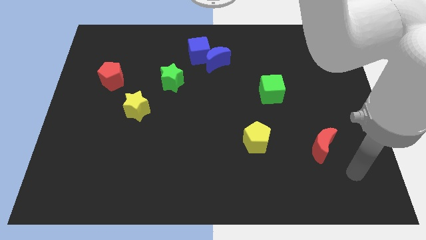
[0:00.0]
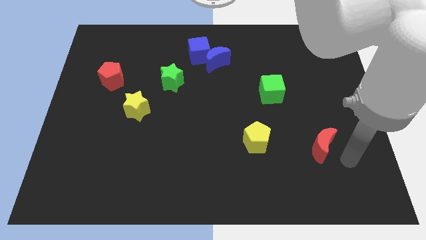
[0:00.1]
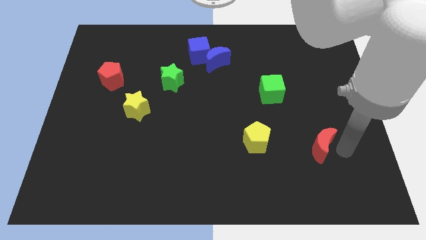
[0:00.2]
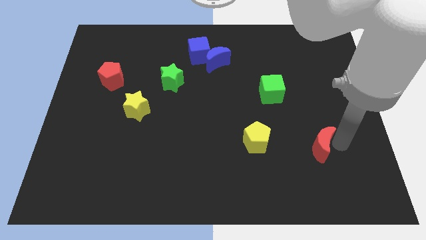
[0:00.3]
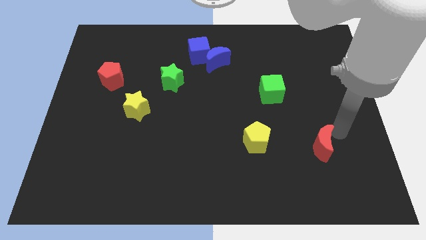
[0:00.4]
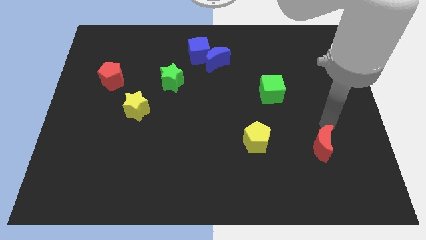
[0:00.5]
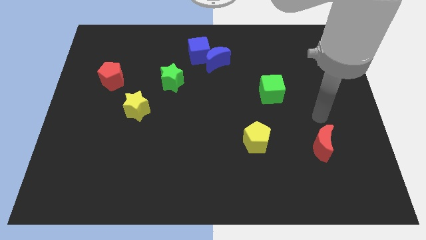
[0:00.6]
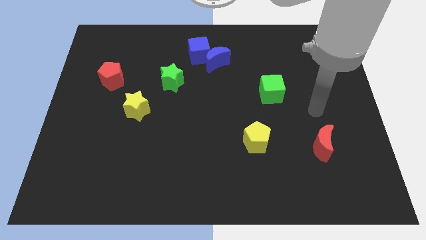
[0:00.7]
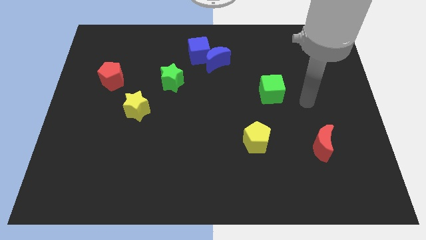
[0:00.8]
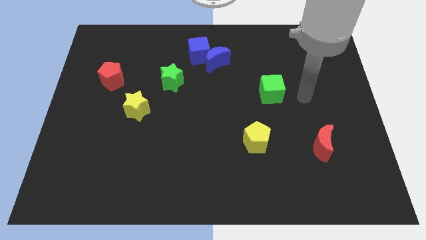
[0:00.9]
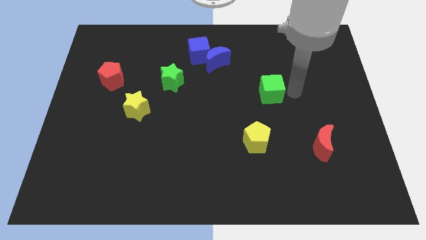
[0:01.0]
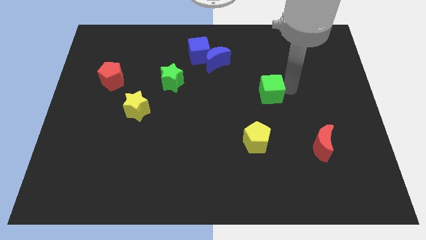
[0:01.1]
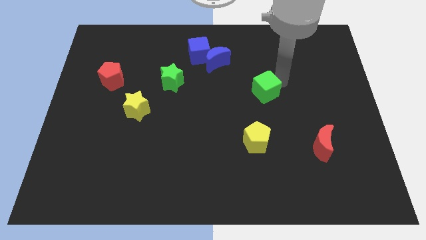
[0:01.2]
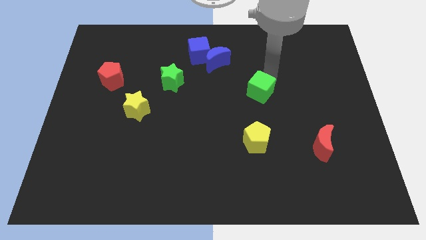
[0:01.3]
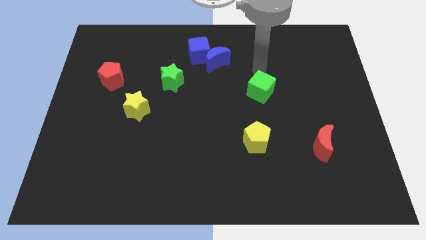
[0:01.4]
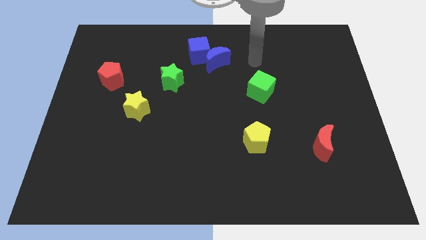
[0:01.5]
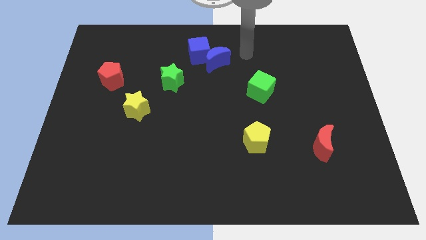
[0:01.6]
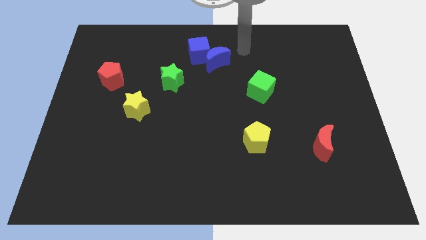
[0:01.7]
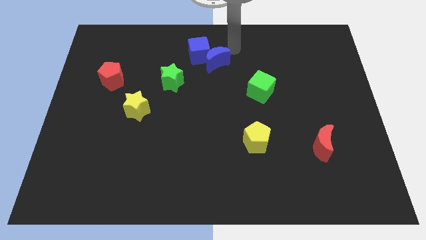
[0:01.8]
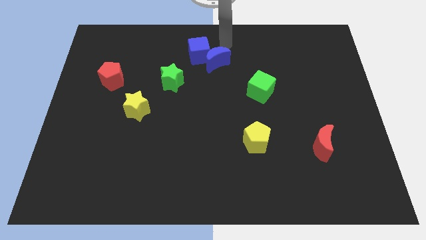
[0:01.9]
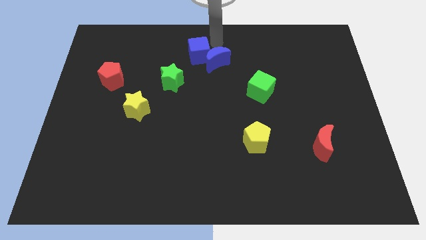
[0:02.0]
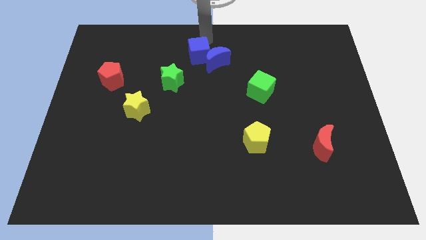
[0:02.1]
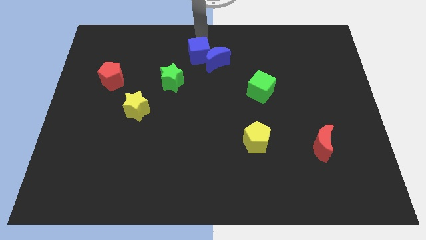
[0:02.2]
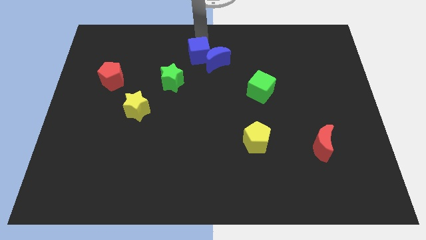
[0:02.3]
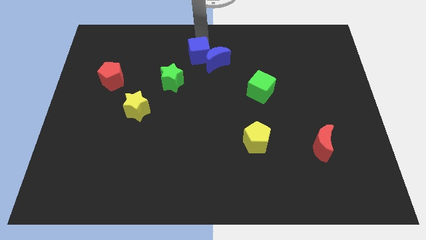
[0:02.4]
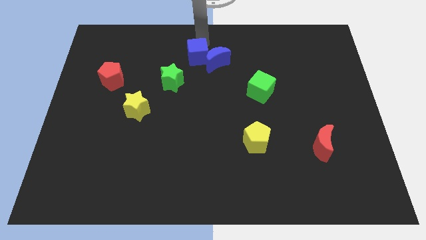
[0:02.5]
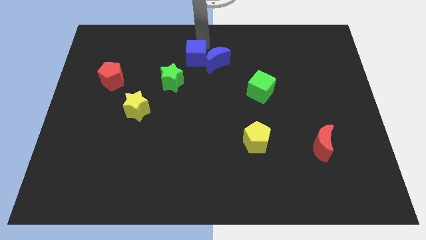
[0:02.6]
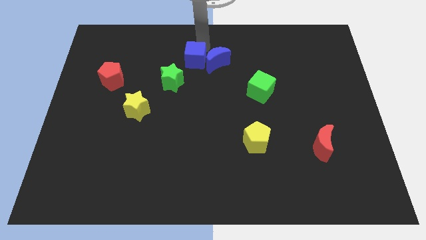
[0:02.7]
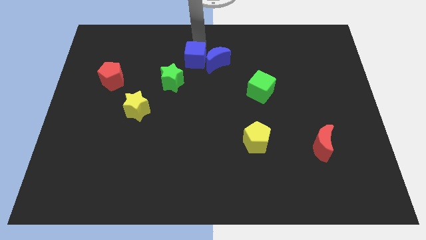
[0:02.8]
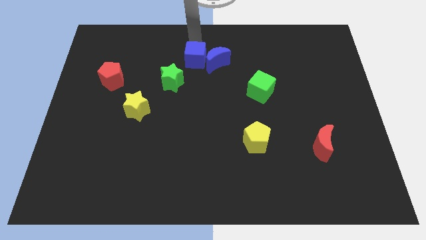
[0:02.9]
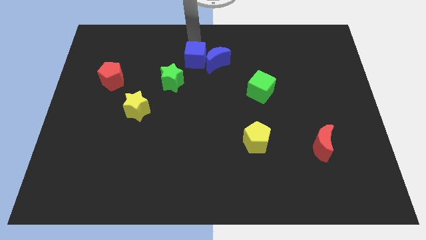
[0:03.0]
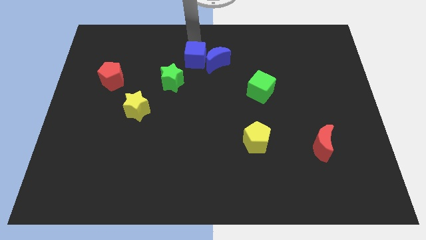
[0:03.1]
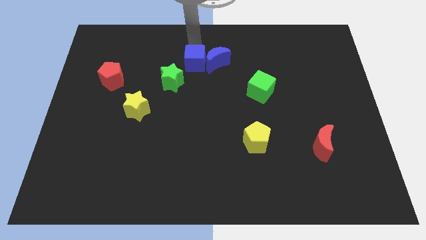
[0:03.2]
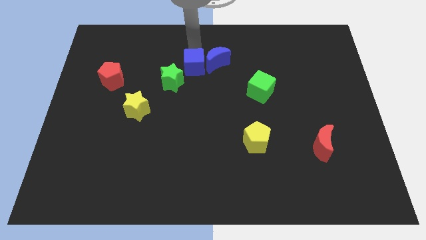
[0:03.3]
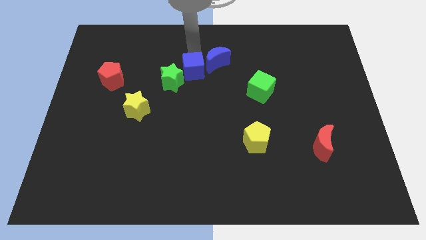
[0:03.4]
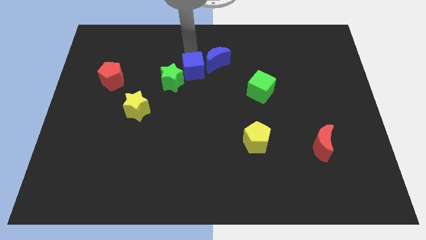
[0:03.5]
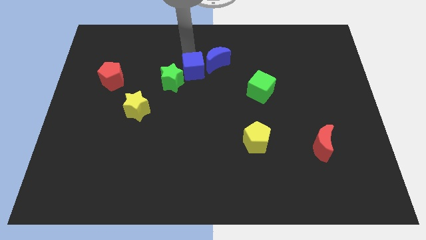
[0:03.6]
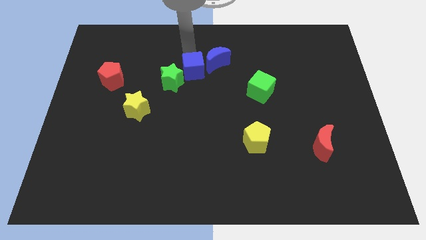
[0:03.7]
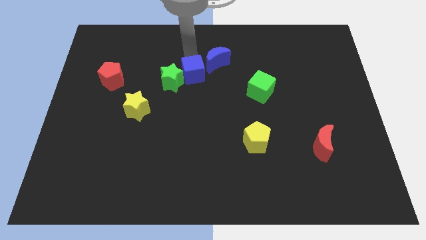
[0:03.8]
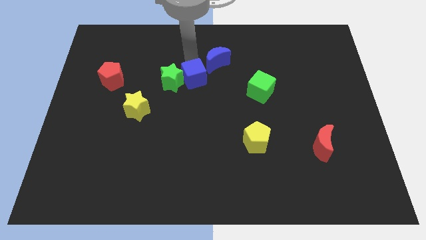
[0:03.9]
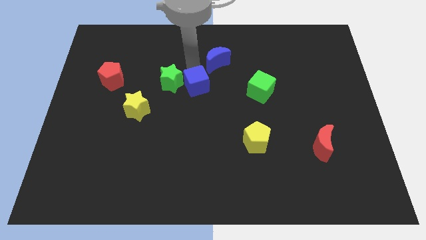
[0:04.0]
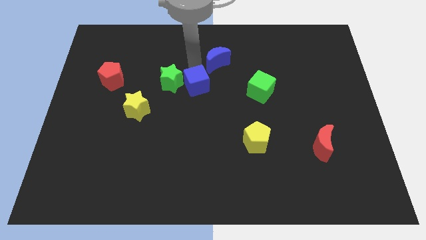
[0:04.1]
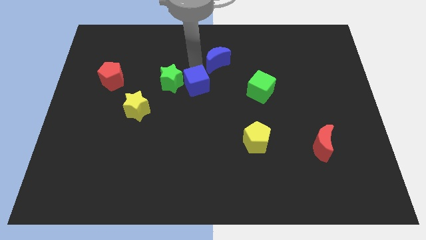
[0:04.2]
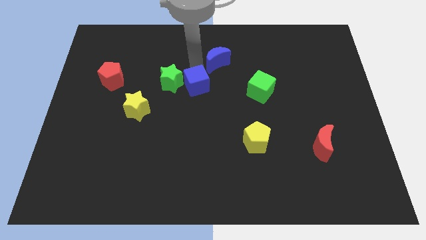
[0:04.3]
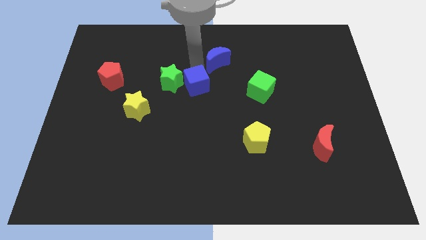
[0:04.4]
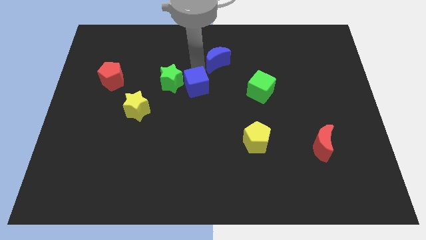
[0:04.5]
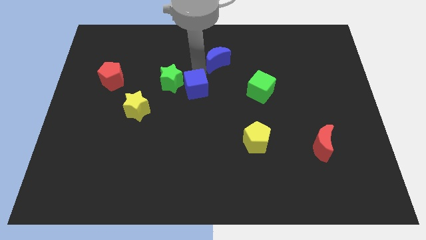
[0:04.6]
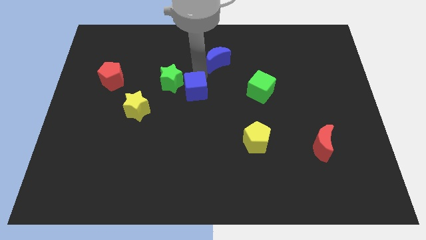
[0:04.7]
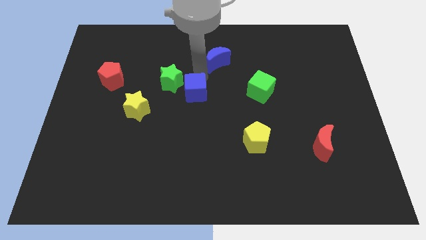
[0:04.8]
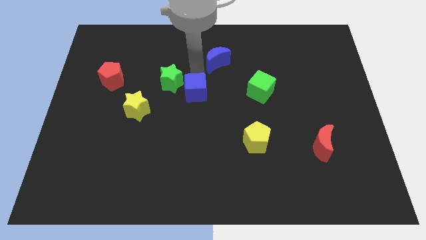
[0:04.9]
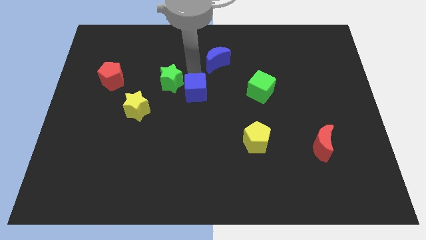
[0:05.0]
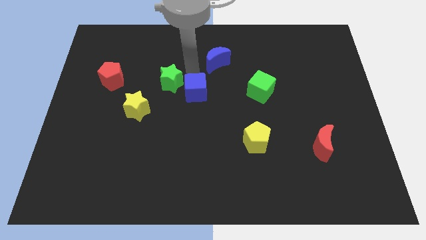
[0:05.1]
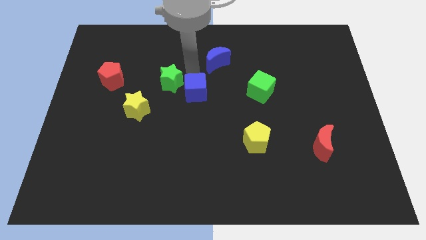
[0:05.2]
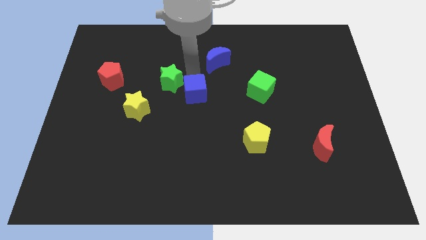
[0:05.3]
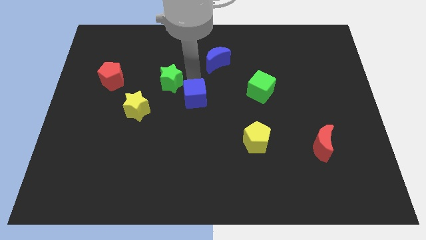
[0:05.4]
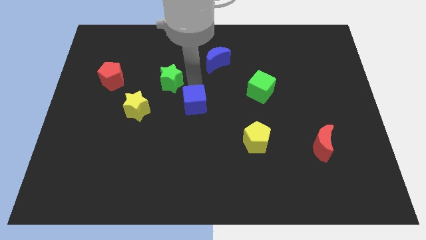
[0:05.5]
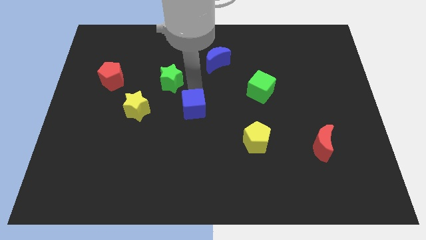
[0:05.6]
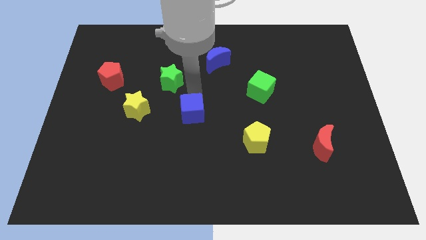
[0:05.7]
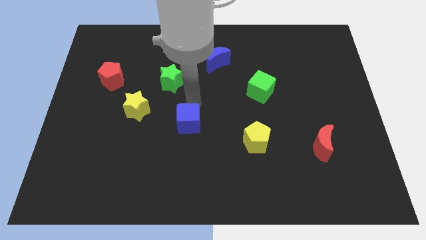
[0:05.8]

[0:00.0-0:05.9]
slide the blue cube downwards

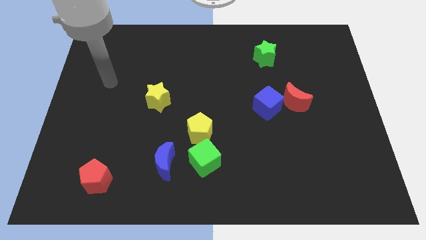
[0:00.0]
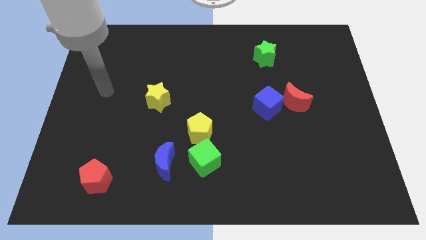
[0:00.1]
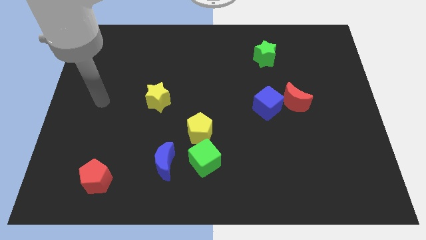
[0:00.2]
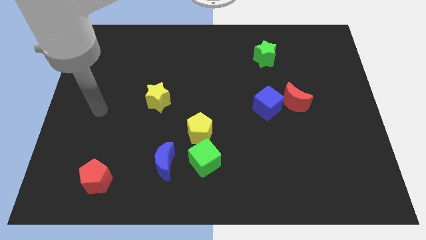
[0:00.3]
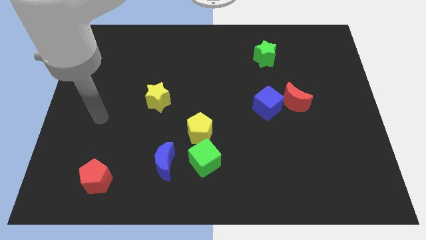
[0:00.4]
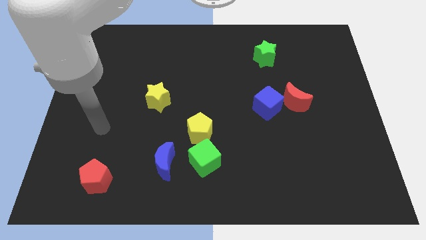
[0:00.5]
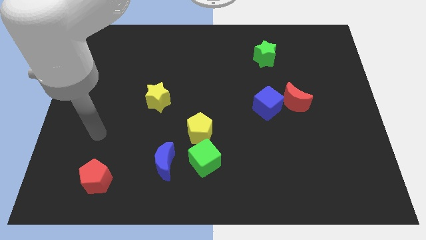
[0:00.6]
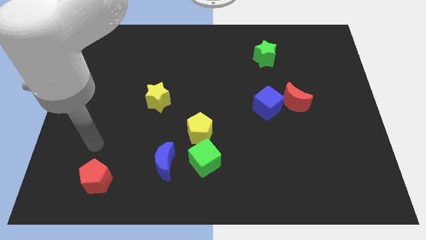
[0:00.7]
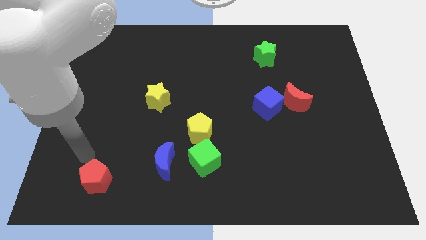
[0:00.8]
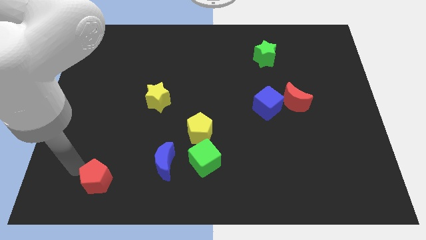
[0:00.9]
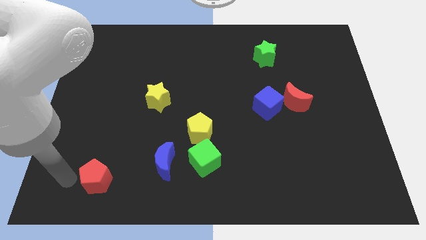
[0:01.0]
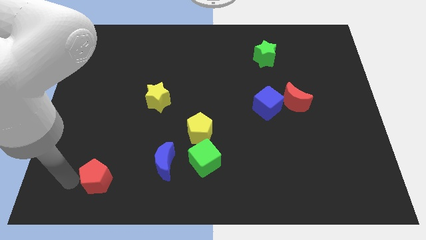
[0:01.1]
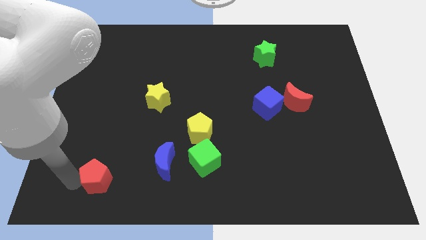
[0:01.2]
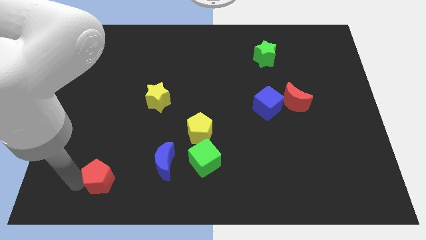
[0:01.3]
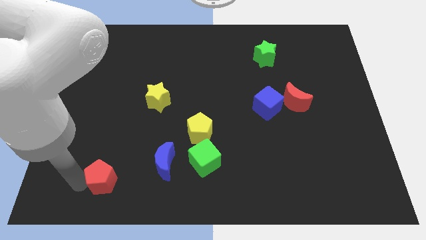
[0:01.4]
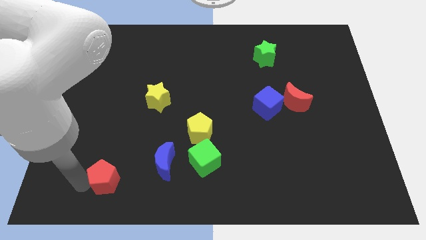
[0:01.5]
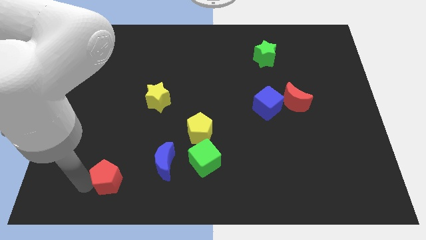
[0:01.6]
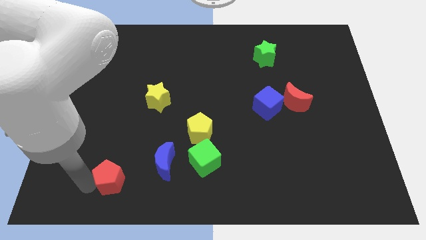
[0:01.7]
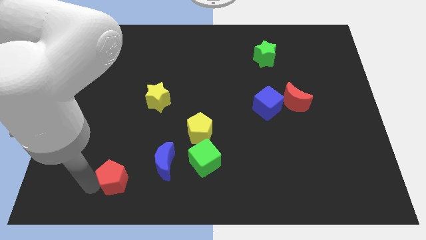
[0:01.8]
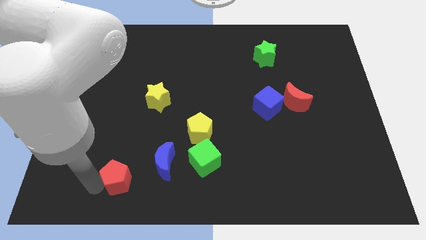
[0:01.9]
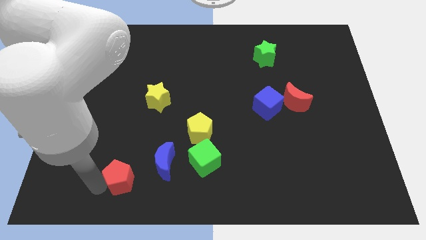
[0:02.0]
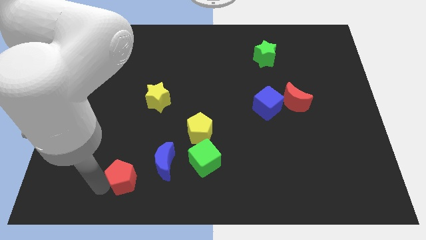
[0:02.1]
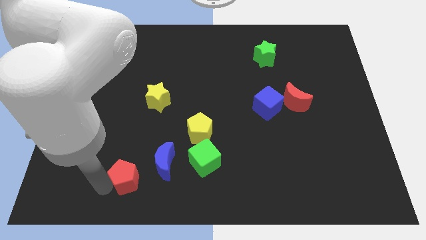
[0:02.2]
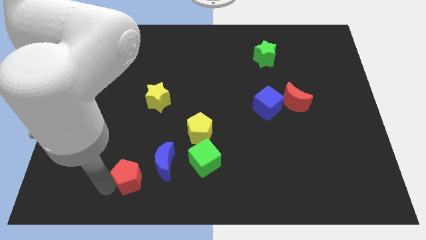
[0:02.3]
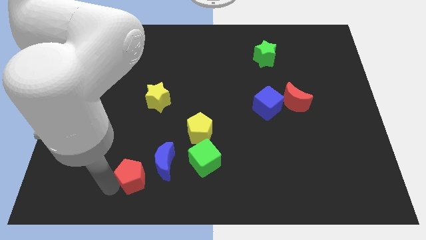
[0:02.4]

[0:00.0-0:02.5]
slightly slide the red pentagon to the right
